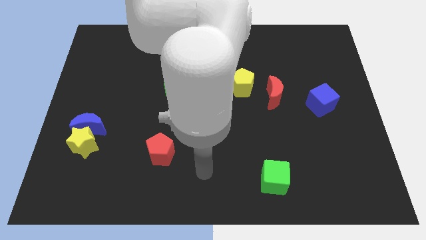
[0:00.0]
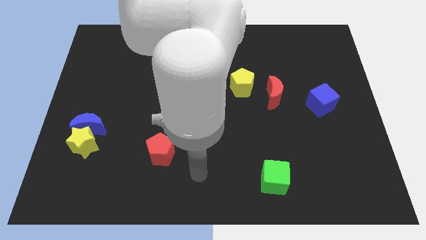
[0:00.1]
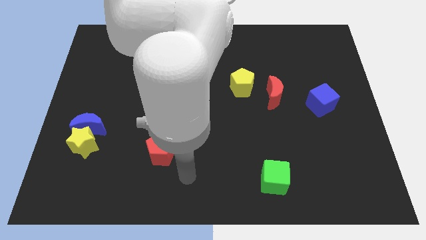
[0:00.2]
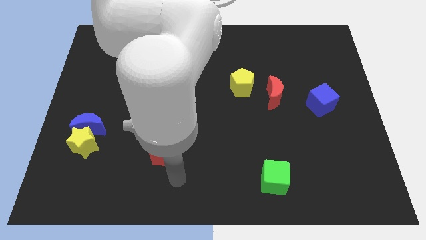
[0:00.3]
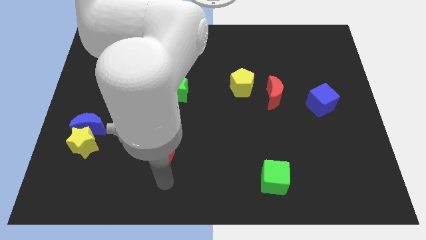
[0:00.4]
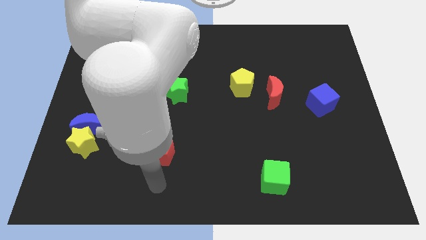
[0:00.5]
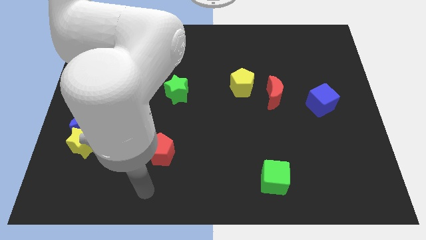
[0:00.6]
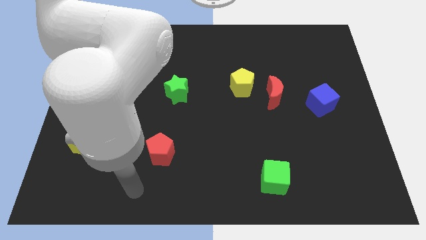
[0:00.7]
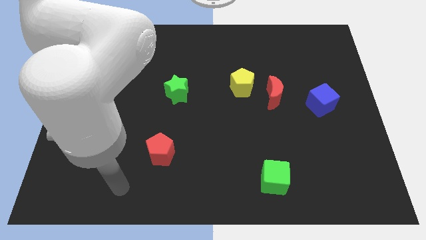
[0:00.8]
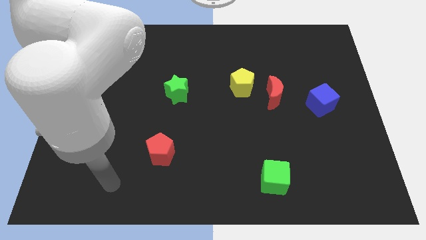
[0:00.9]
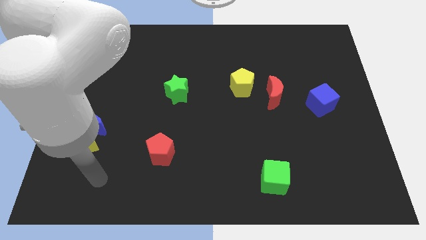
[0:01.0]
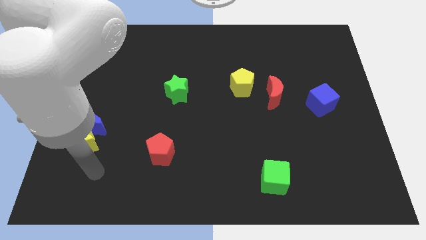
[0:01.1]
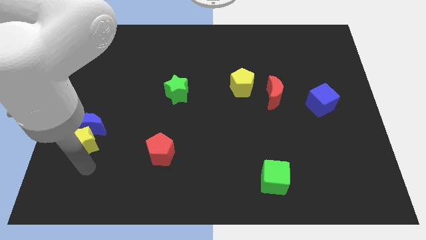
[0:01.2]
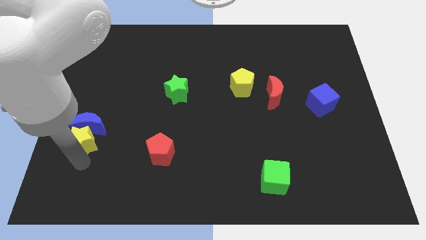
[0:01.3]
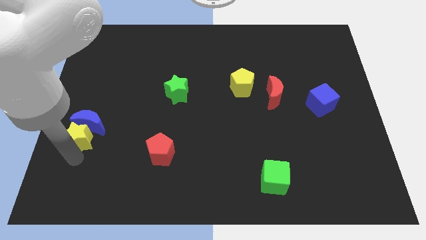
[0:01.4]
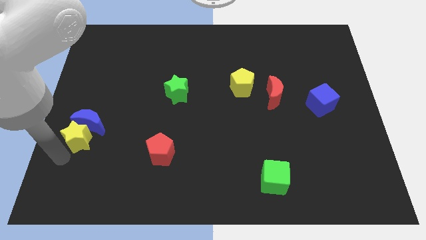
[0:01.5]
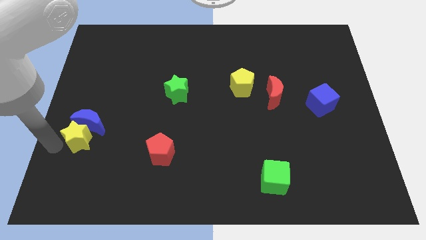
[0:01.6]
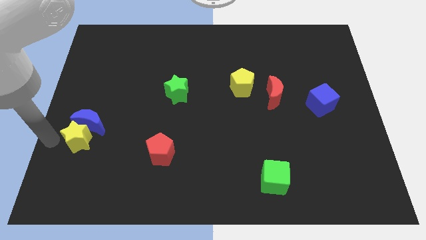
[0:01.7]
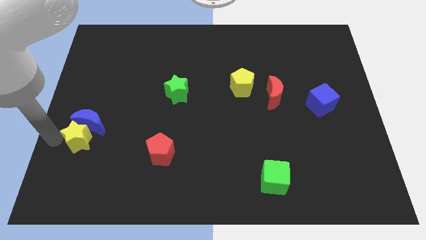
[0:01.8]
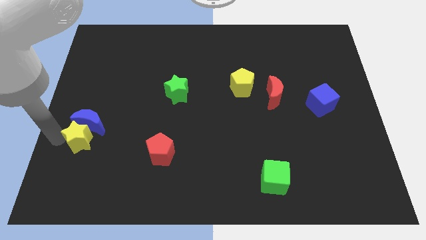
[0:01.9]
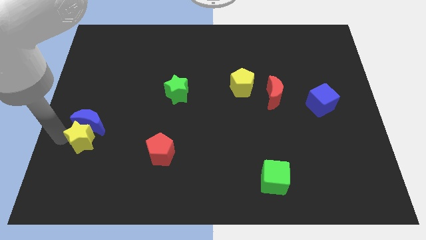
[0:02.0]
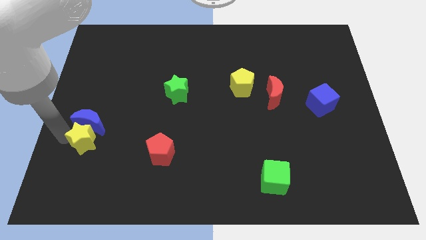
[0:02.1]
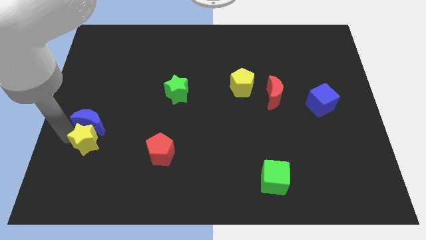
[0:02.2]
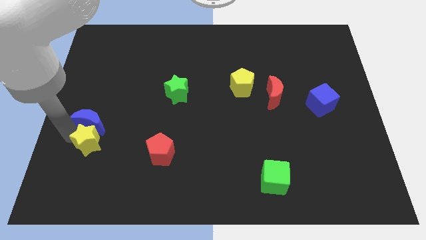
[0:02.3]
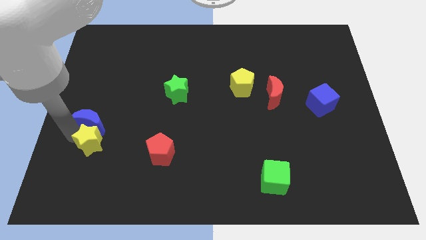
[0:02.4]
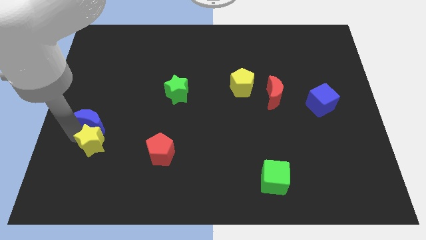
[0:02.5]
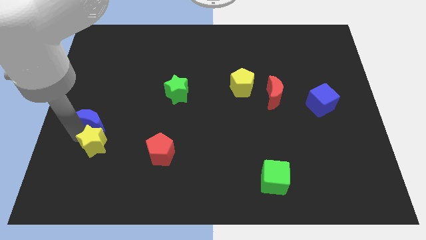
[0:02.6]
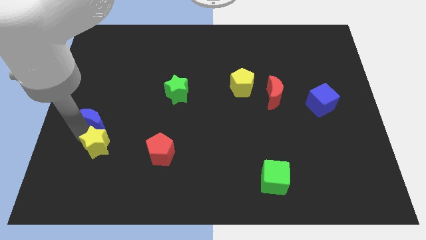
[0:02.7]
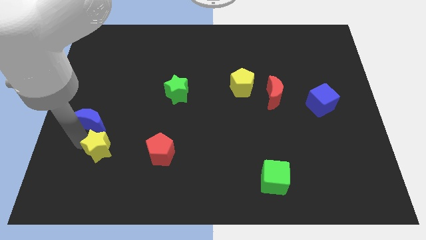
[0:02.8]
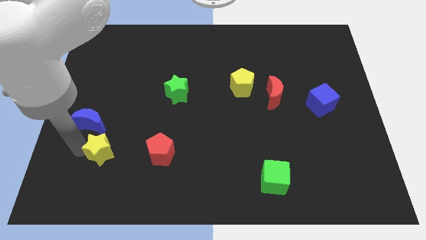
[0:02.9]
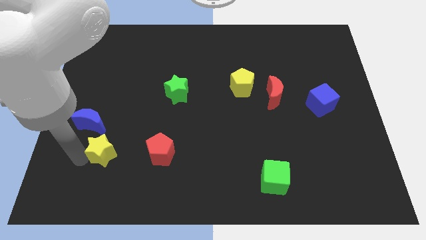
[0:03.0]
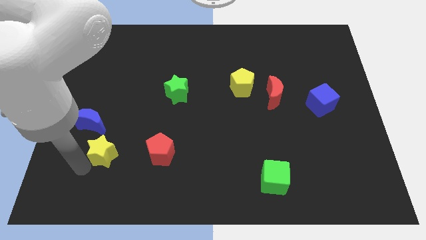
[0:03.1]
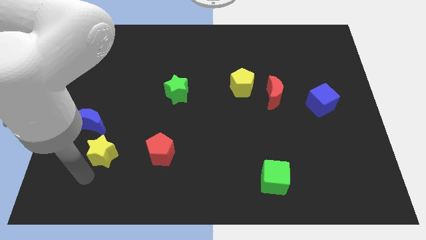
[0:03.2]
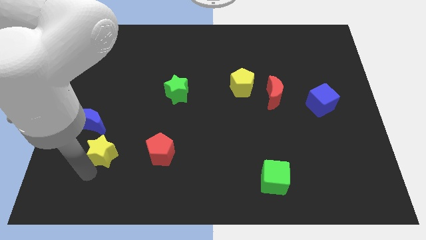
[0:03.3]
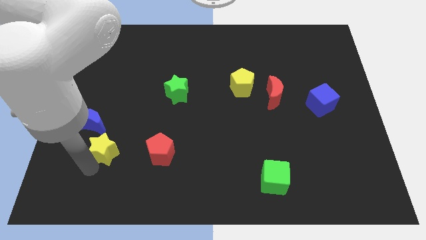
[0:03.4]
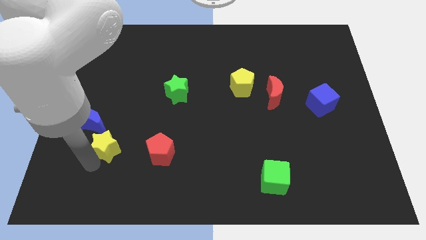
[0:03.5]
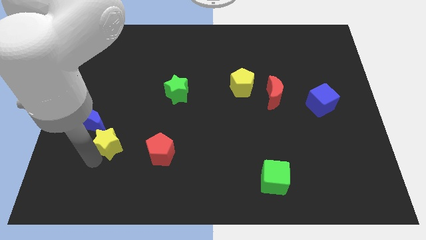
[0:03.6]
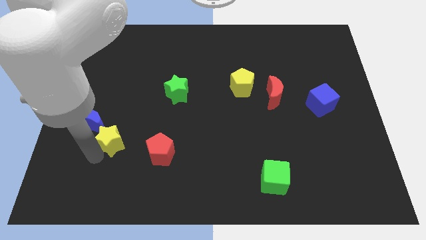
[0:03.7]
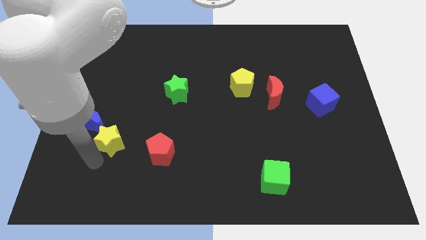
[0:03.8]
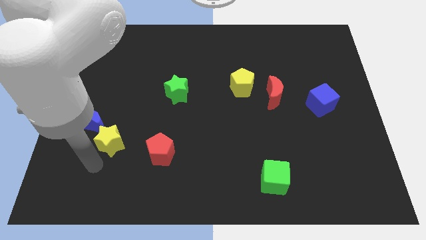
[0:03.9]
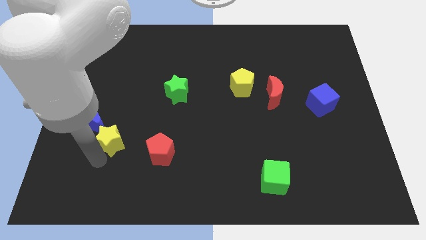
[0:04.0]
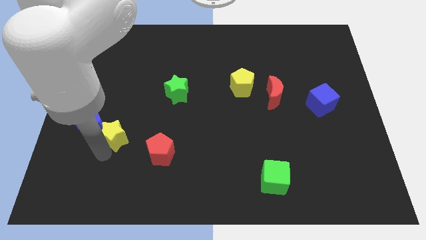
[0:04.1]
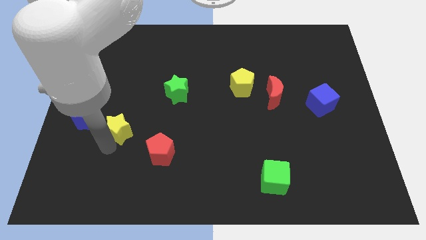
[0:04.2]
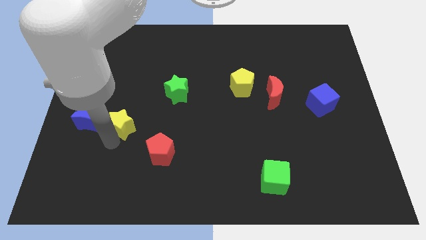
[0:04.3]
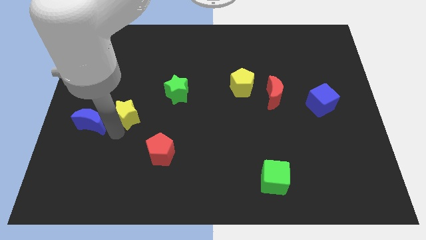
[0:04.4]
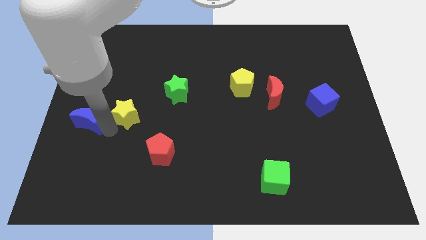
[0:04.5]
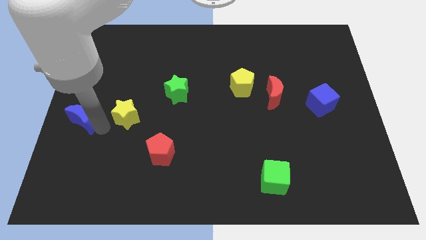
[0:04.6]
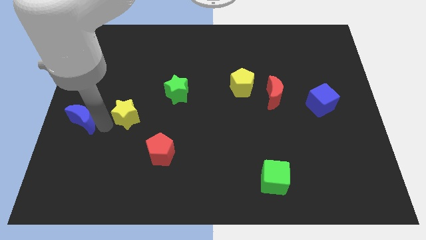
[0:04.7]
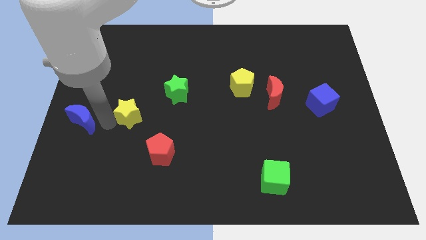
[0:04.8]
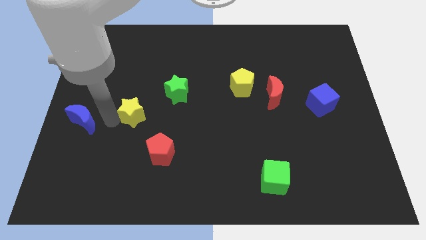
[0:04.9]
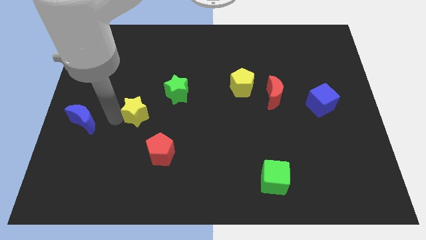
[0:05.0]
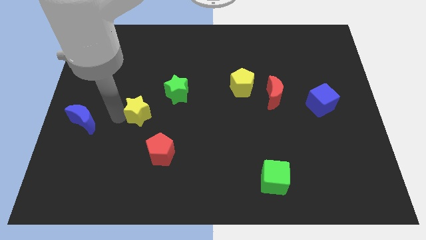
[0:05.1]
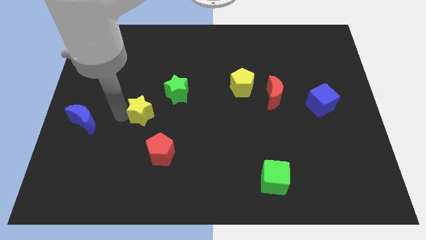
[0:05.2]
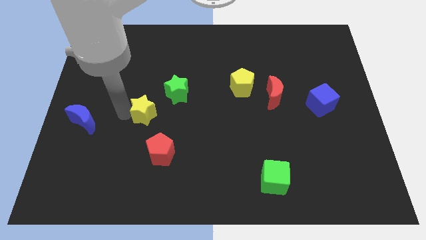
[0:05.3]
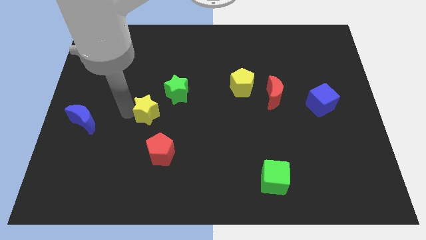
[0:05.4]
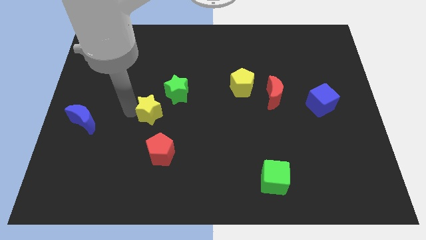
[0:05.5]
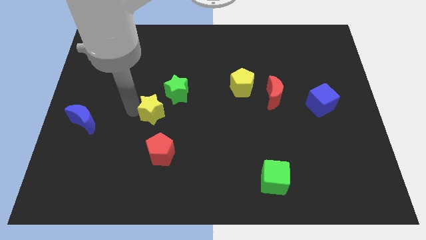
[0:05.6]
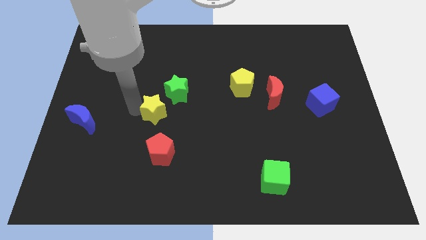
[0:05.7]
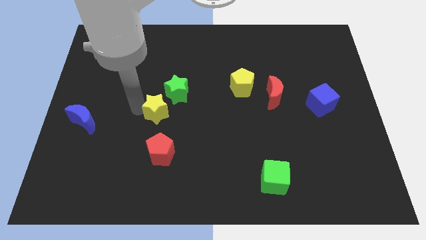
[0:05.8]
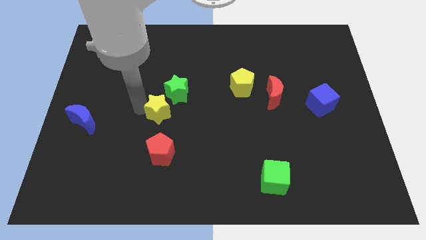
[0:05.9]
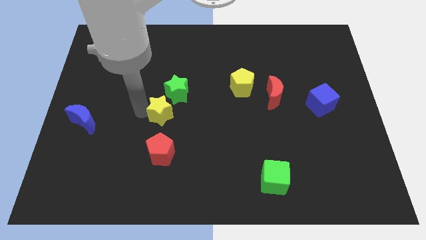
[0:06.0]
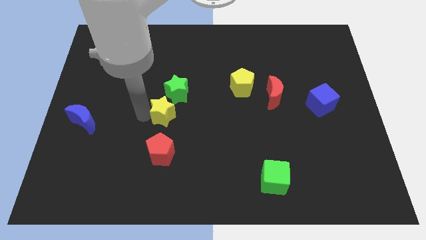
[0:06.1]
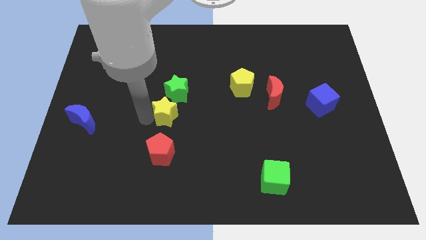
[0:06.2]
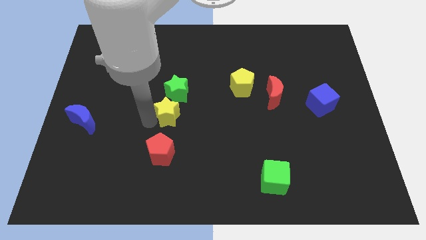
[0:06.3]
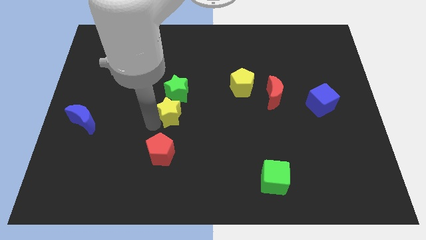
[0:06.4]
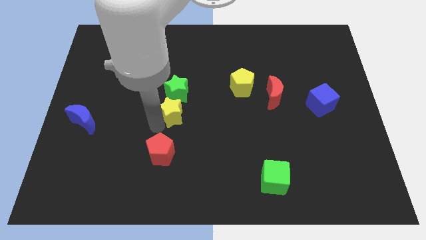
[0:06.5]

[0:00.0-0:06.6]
push the yellow star close to the green star
